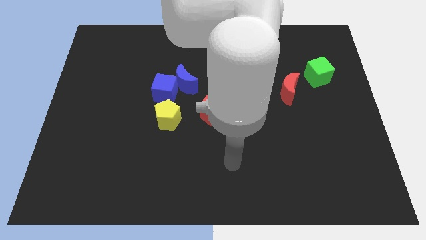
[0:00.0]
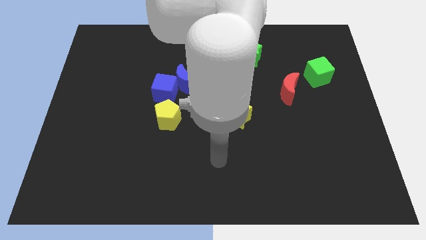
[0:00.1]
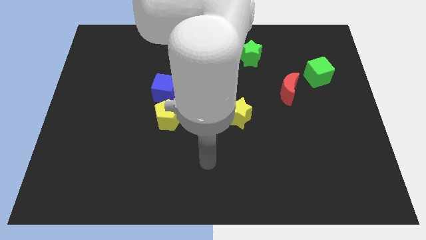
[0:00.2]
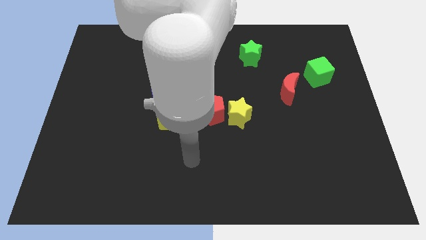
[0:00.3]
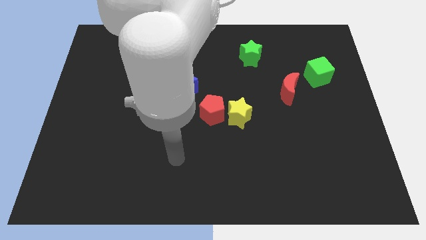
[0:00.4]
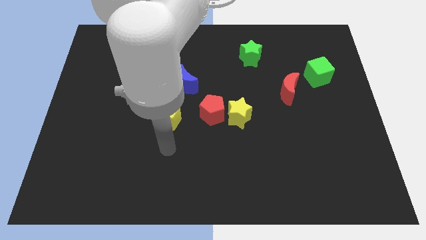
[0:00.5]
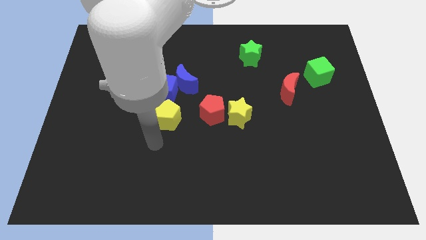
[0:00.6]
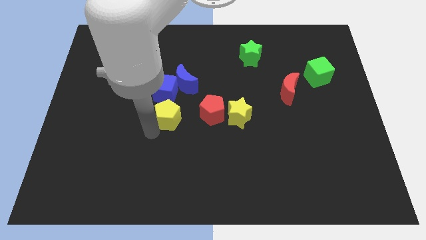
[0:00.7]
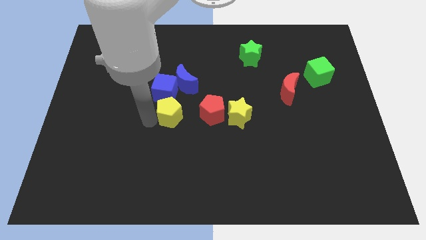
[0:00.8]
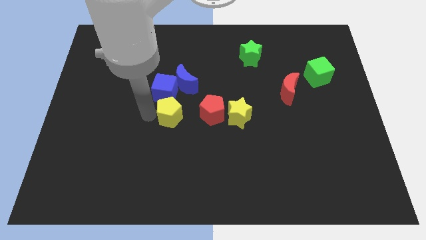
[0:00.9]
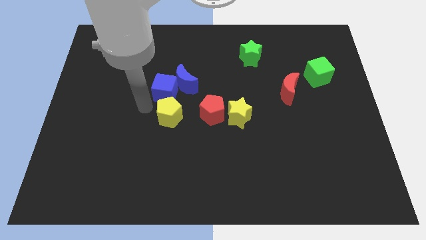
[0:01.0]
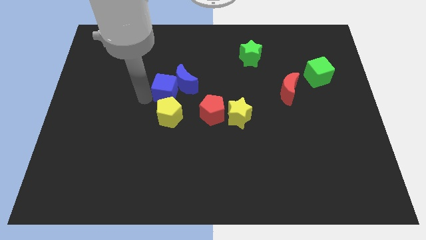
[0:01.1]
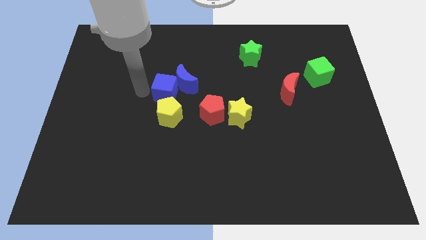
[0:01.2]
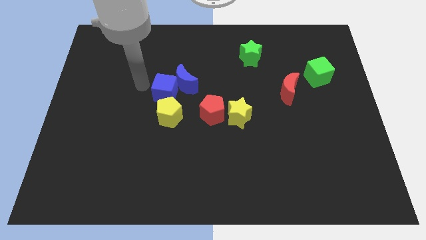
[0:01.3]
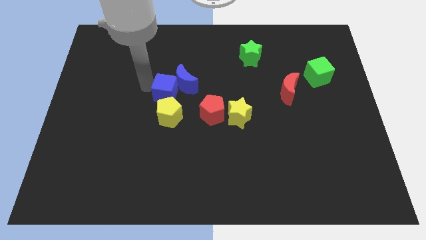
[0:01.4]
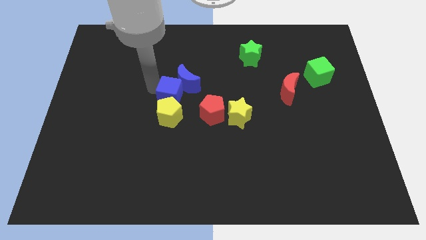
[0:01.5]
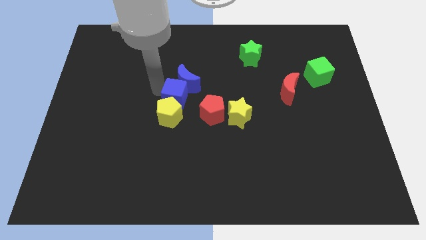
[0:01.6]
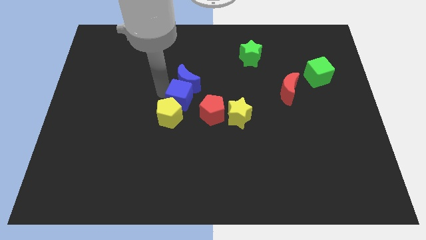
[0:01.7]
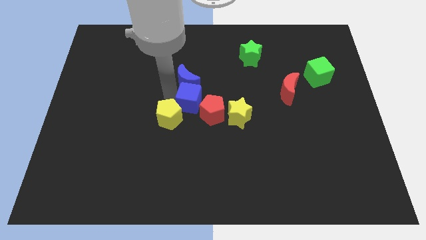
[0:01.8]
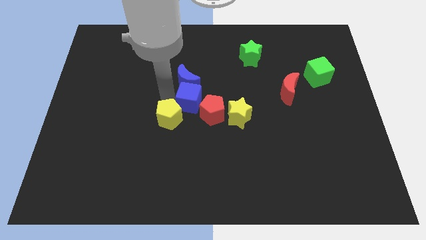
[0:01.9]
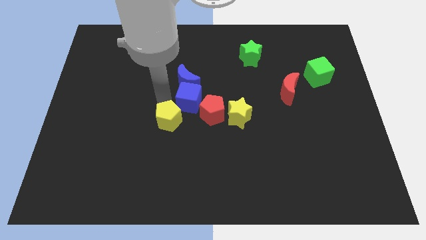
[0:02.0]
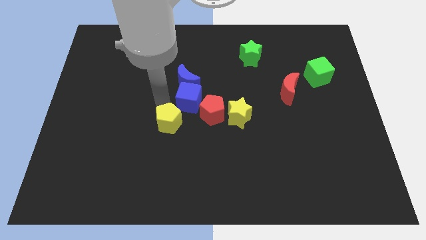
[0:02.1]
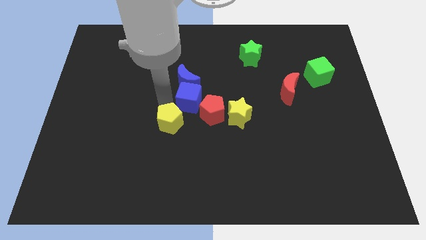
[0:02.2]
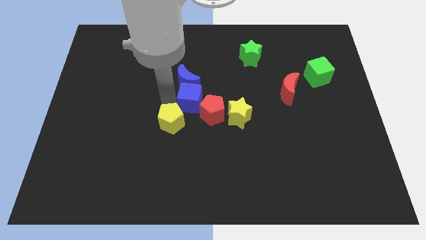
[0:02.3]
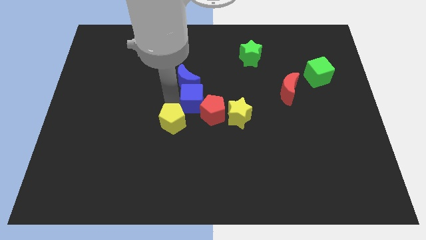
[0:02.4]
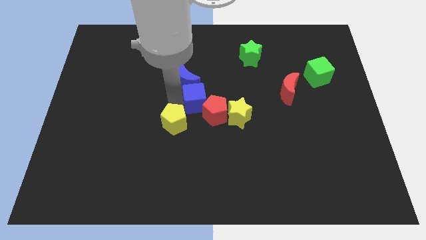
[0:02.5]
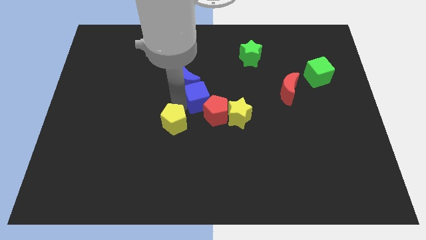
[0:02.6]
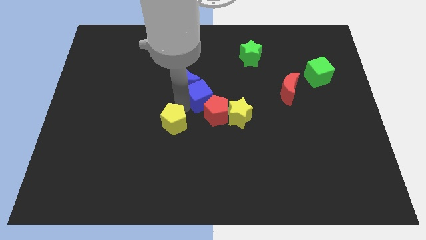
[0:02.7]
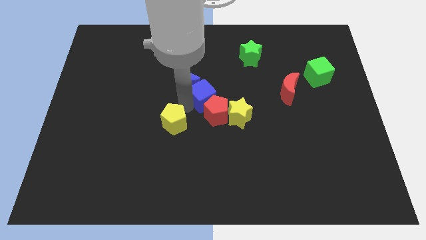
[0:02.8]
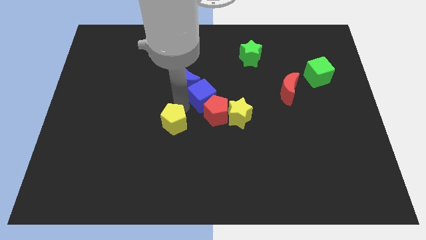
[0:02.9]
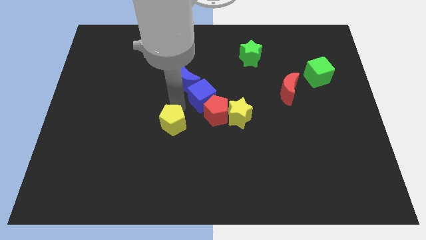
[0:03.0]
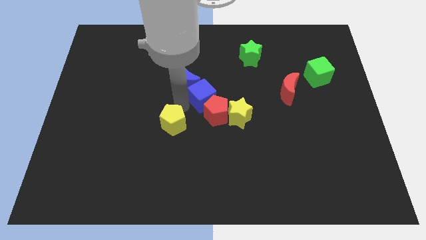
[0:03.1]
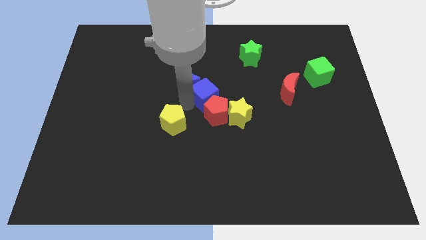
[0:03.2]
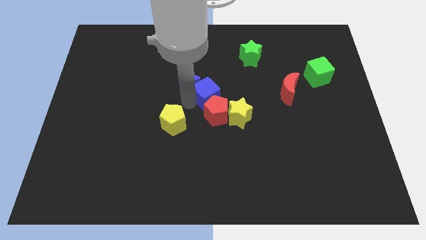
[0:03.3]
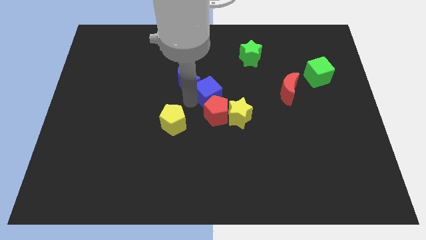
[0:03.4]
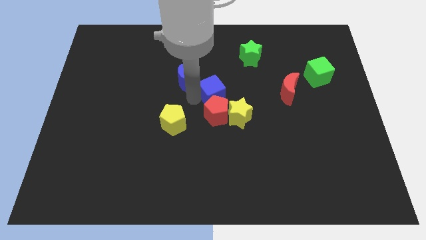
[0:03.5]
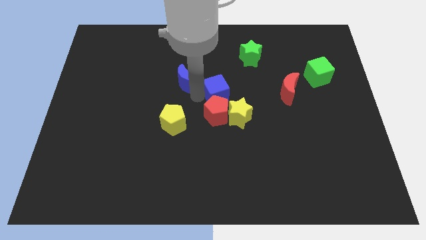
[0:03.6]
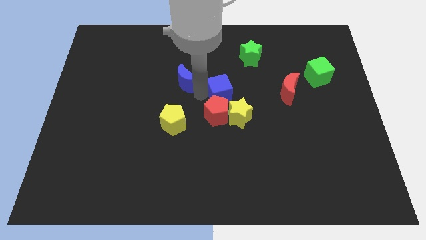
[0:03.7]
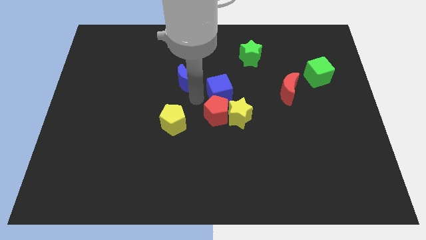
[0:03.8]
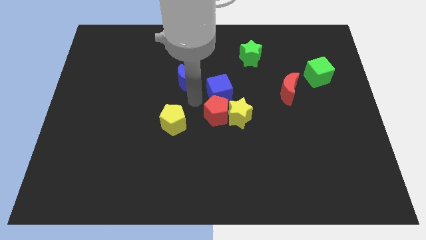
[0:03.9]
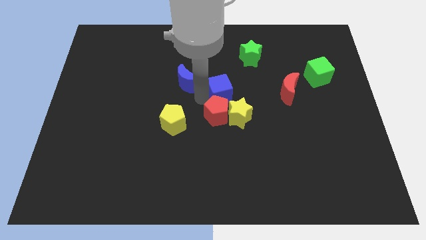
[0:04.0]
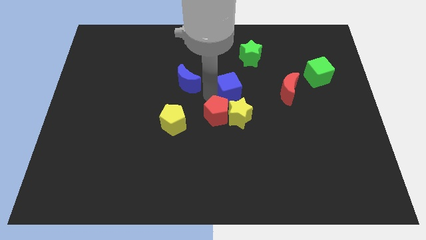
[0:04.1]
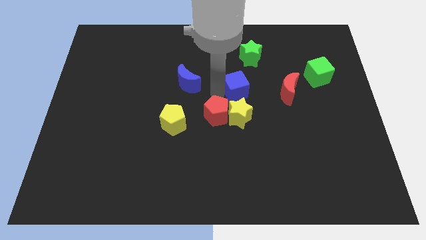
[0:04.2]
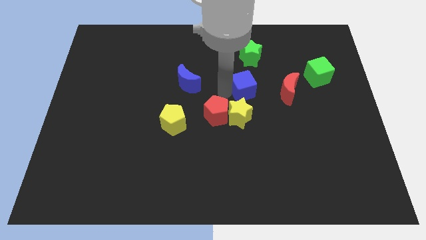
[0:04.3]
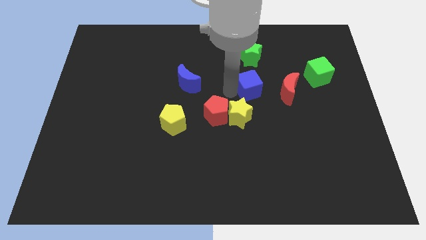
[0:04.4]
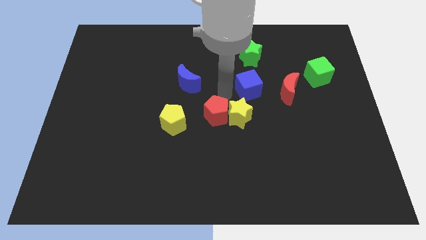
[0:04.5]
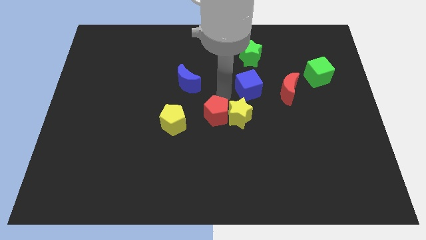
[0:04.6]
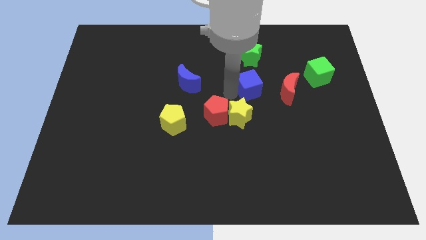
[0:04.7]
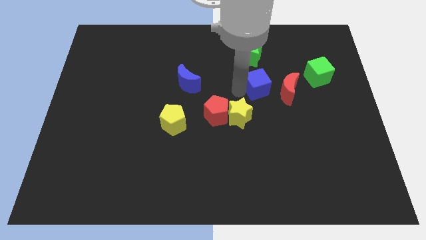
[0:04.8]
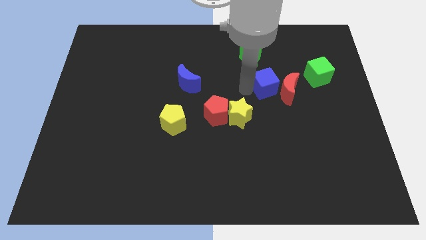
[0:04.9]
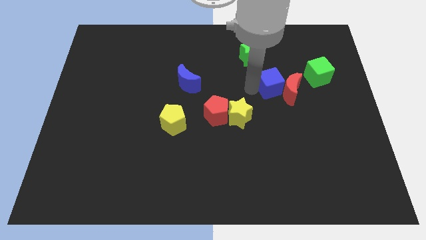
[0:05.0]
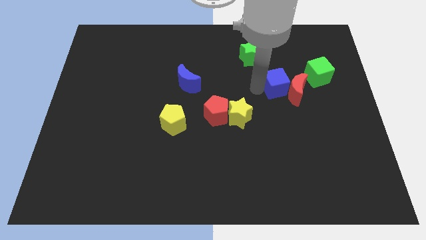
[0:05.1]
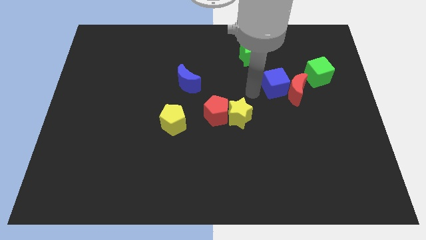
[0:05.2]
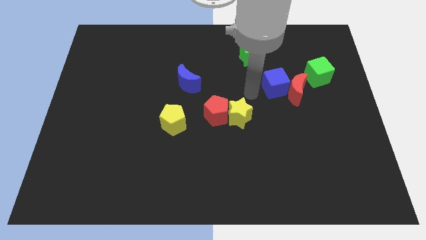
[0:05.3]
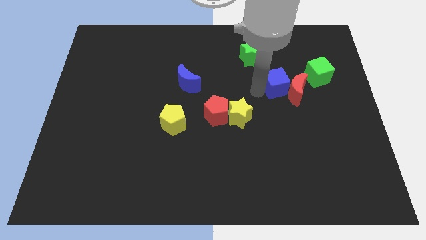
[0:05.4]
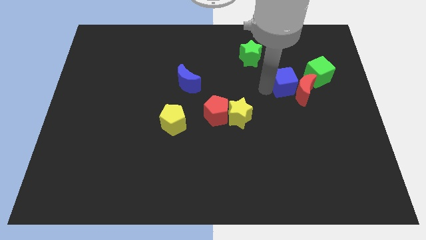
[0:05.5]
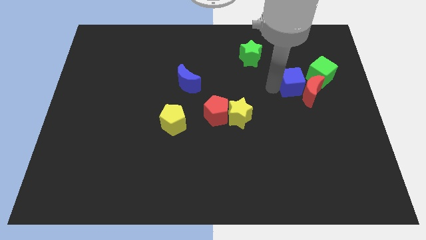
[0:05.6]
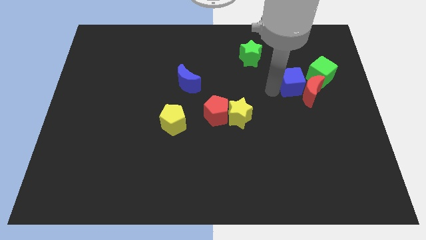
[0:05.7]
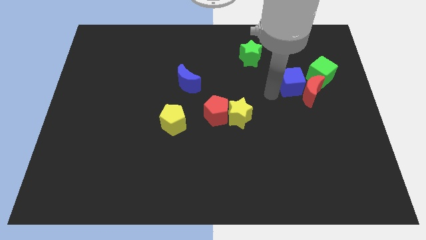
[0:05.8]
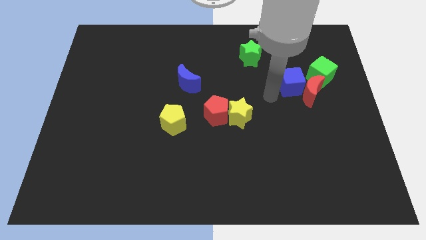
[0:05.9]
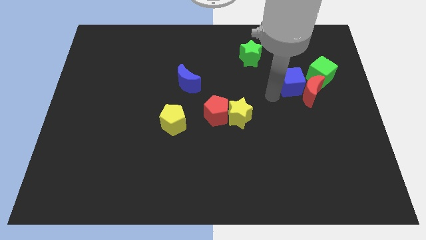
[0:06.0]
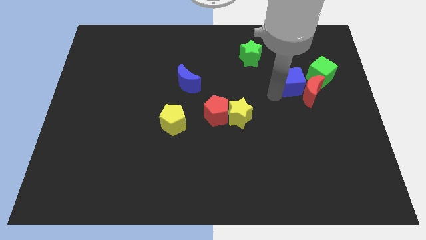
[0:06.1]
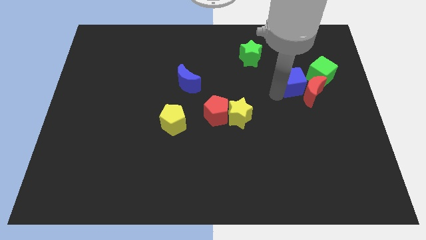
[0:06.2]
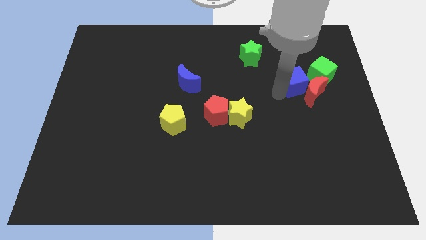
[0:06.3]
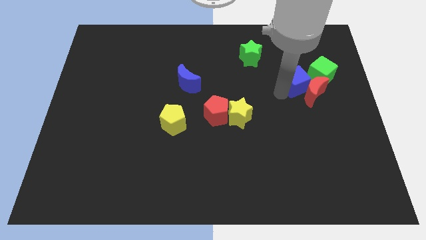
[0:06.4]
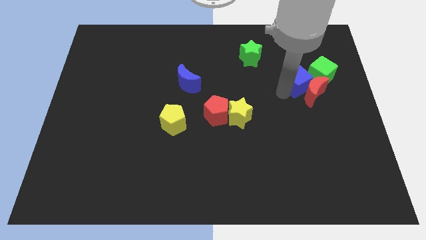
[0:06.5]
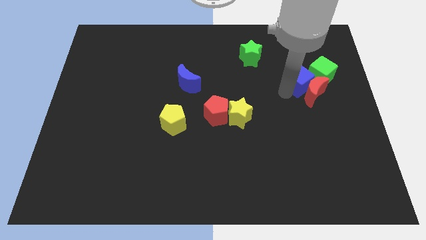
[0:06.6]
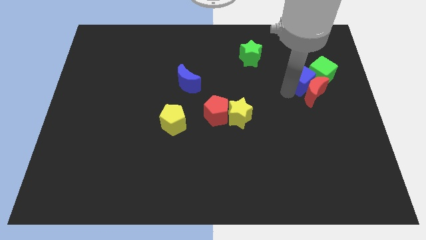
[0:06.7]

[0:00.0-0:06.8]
slide the blue cube close to the green cube
